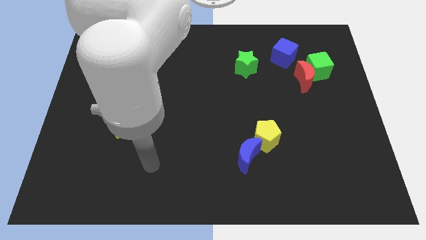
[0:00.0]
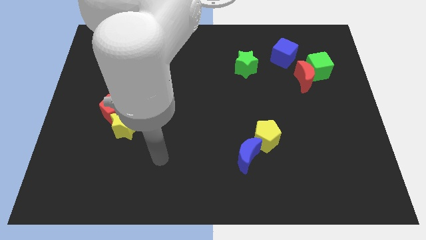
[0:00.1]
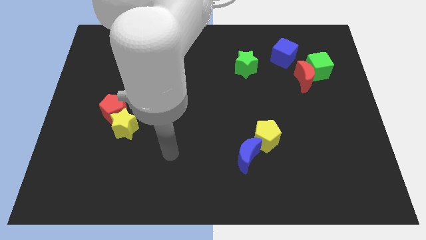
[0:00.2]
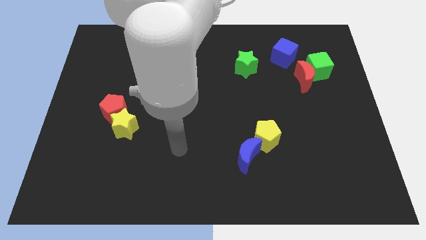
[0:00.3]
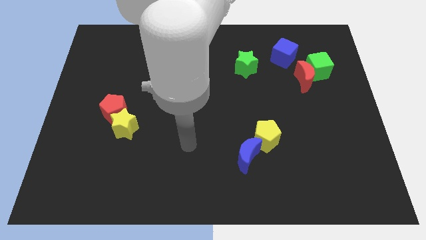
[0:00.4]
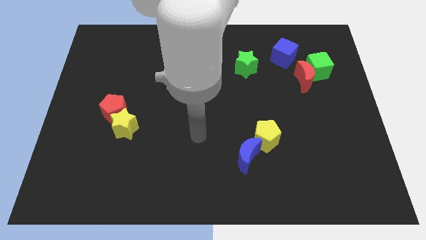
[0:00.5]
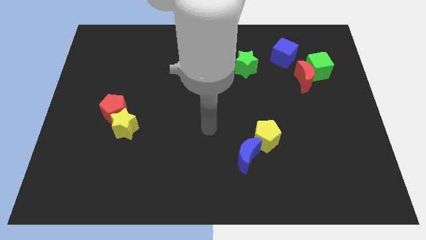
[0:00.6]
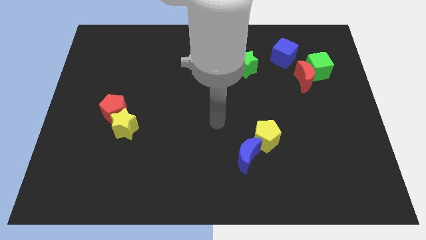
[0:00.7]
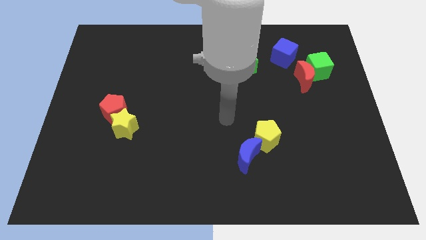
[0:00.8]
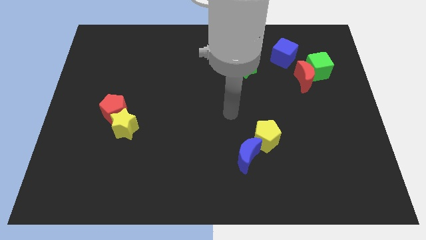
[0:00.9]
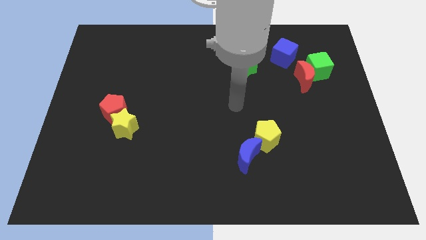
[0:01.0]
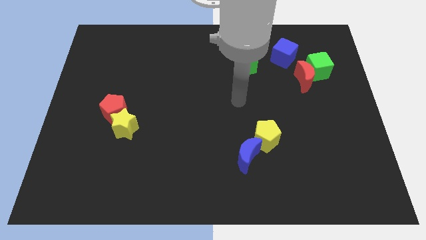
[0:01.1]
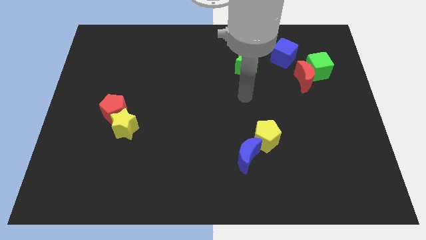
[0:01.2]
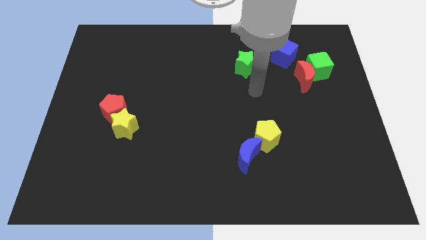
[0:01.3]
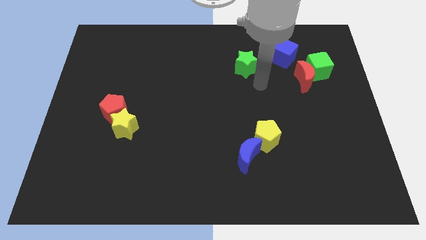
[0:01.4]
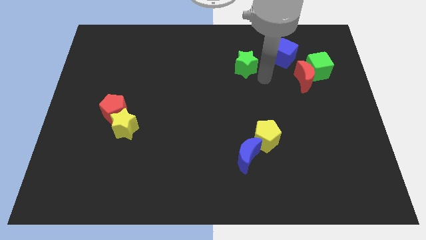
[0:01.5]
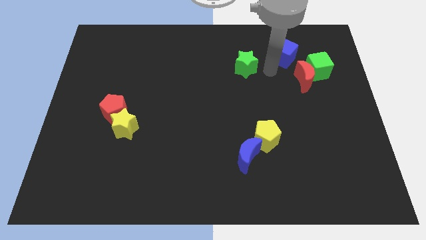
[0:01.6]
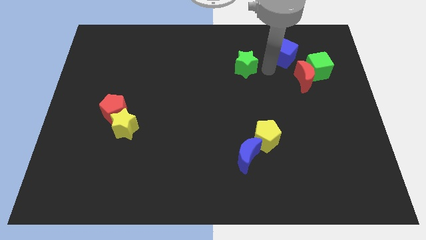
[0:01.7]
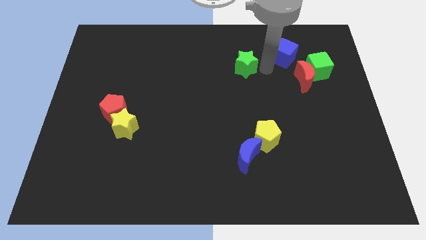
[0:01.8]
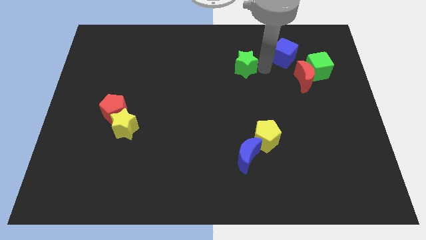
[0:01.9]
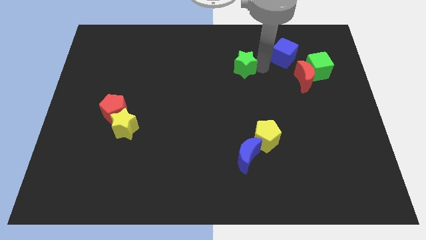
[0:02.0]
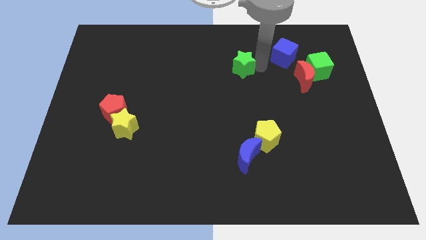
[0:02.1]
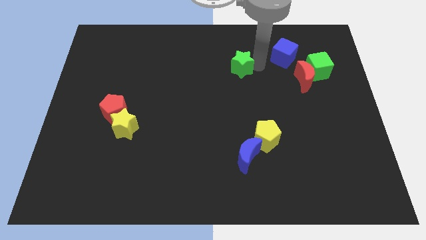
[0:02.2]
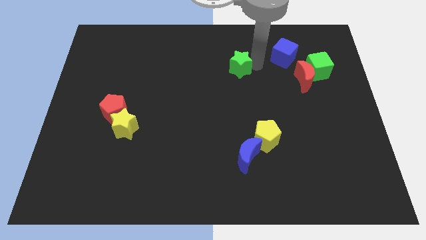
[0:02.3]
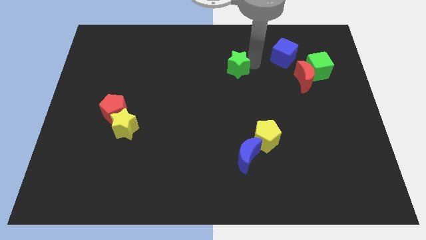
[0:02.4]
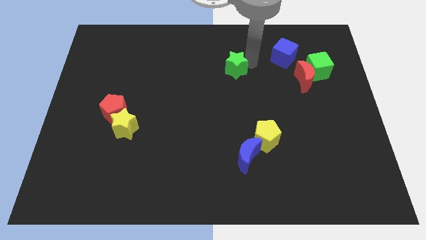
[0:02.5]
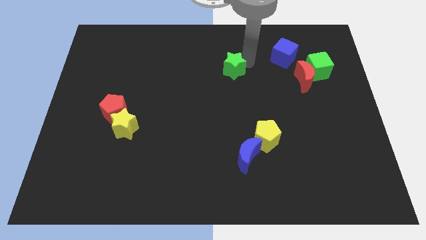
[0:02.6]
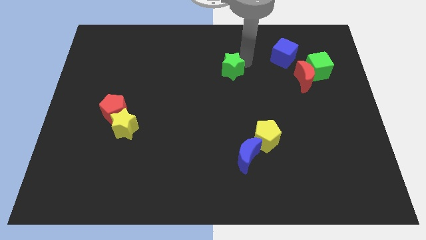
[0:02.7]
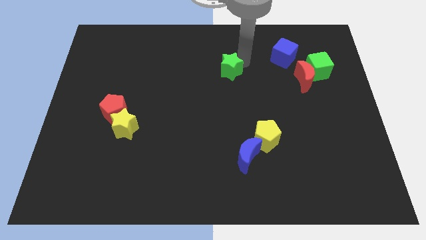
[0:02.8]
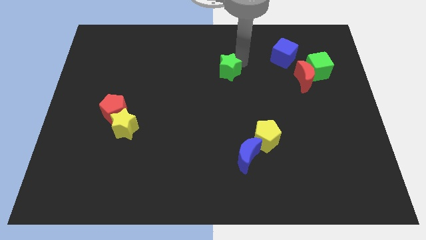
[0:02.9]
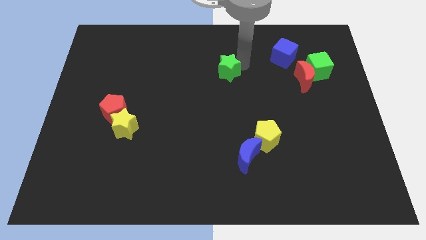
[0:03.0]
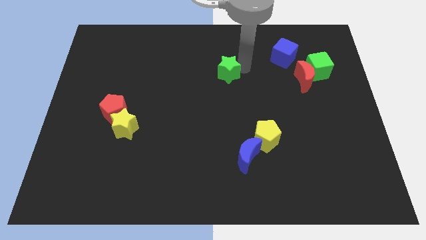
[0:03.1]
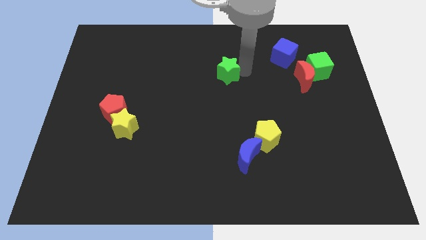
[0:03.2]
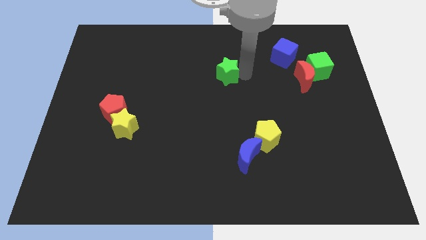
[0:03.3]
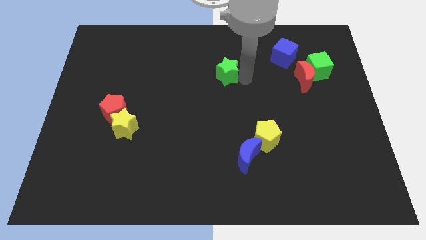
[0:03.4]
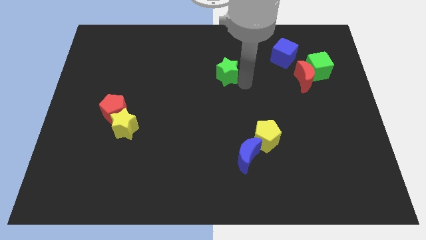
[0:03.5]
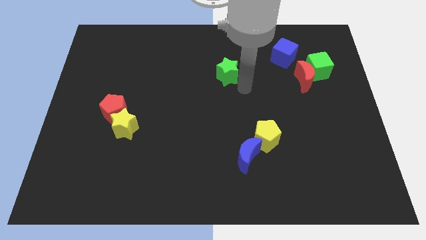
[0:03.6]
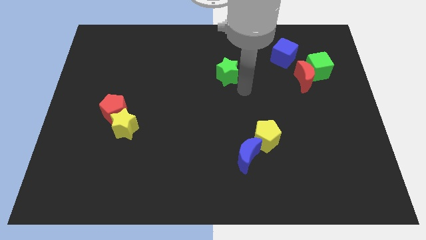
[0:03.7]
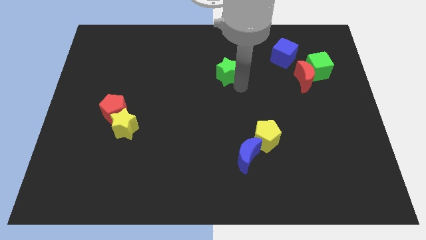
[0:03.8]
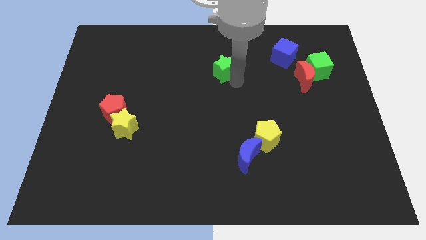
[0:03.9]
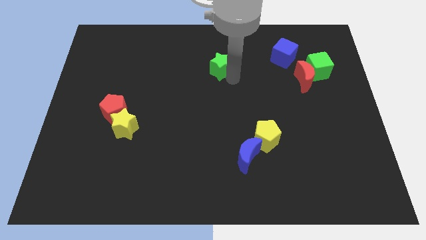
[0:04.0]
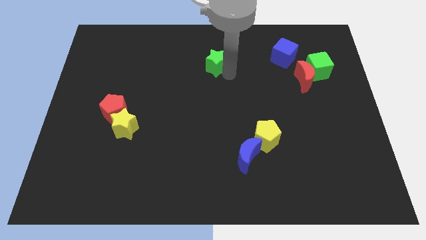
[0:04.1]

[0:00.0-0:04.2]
move the green star somewhat to the left

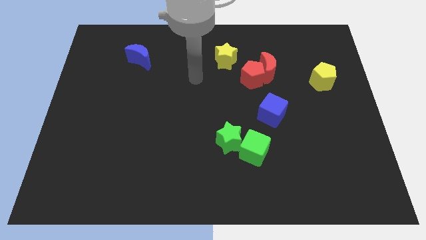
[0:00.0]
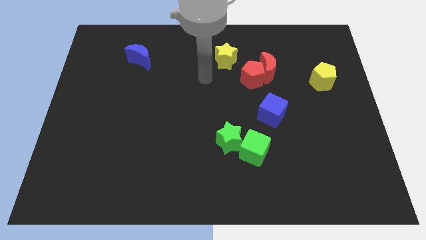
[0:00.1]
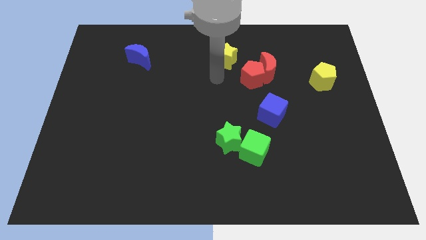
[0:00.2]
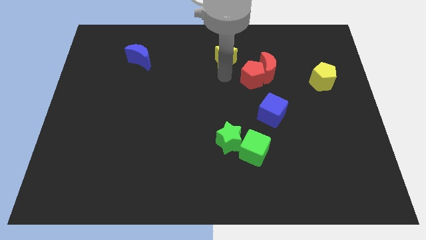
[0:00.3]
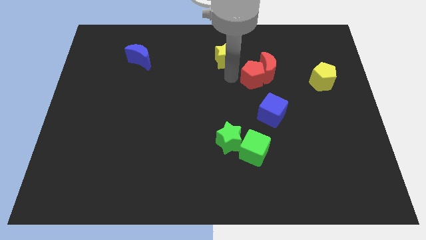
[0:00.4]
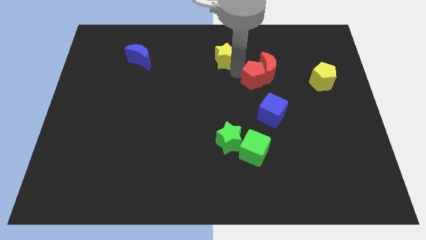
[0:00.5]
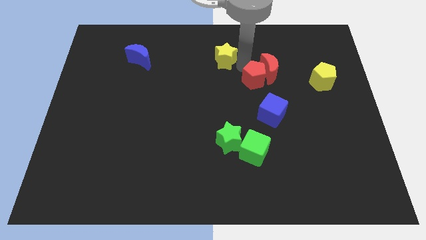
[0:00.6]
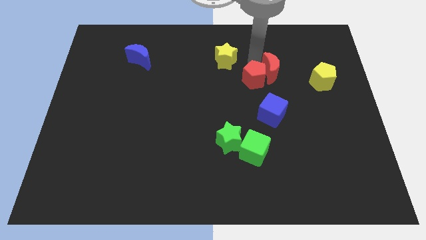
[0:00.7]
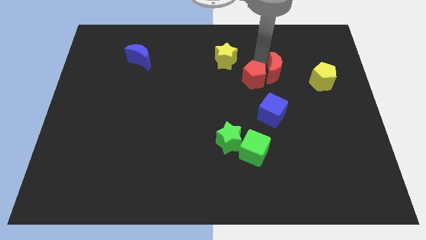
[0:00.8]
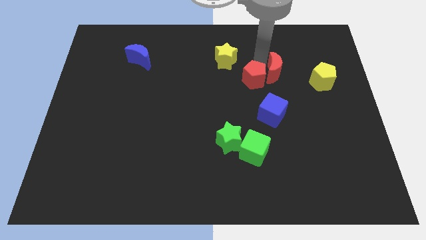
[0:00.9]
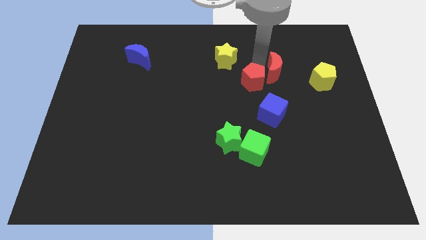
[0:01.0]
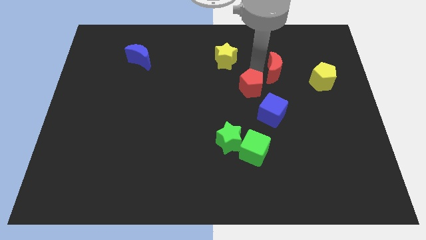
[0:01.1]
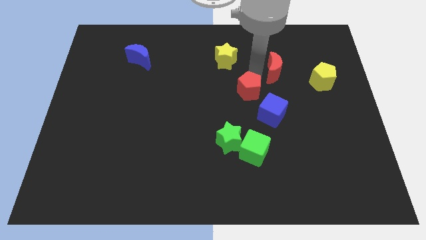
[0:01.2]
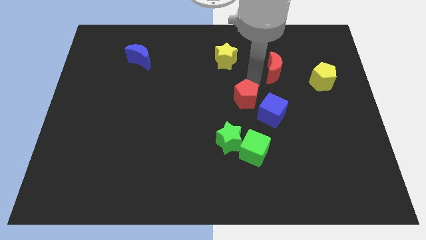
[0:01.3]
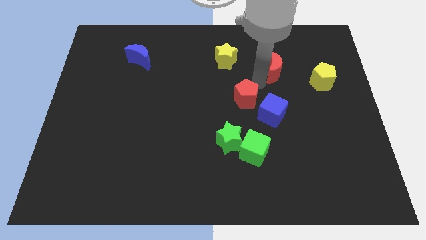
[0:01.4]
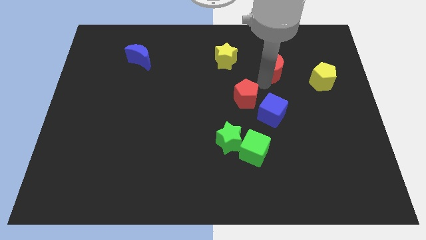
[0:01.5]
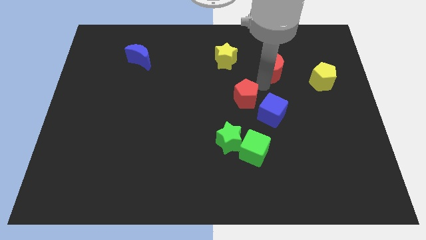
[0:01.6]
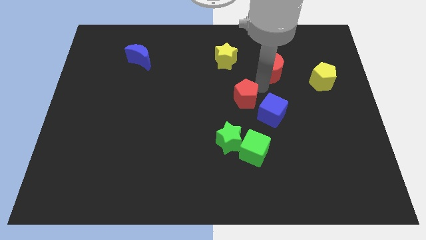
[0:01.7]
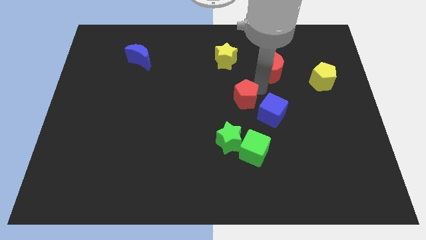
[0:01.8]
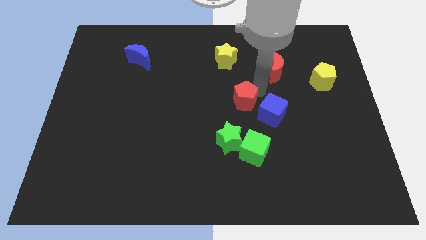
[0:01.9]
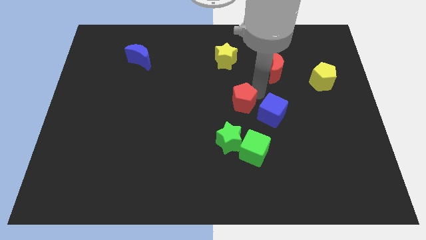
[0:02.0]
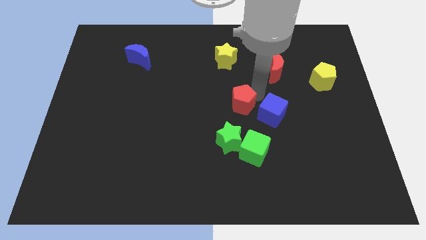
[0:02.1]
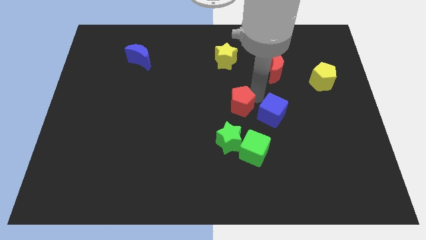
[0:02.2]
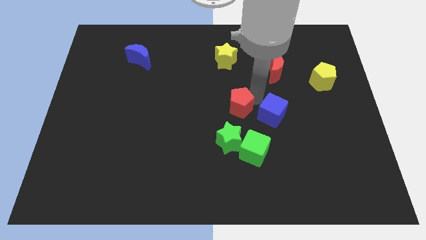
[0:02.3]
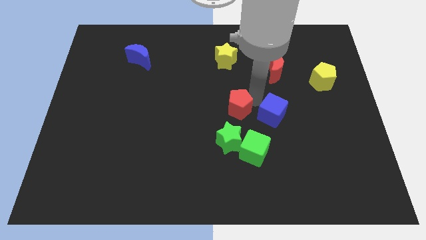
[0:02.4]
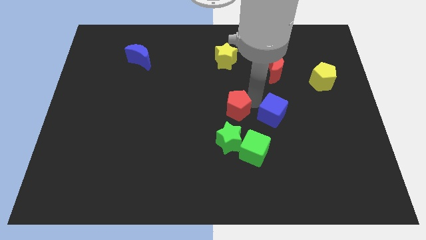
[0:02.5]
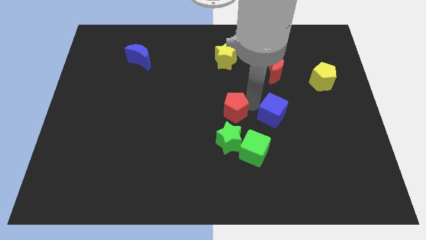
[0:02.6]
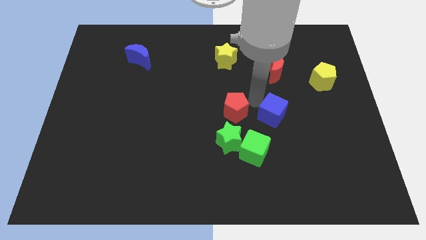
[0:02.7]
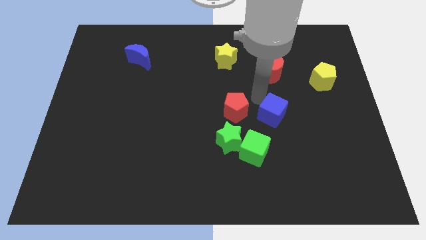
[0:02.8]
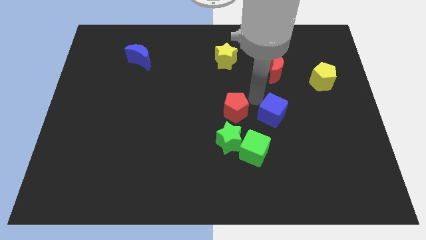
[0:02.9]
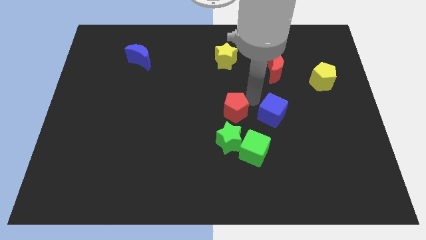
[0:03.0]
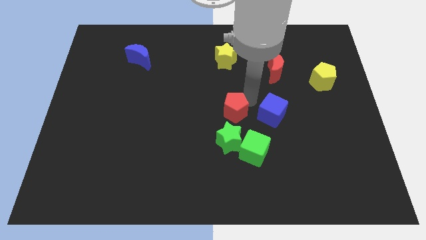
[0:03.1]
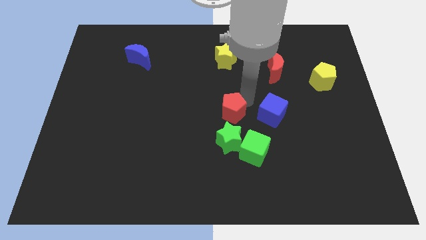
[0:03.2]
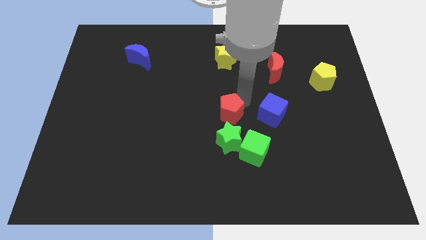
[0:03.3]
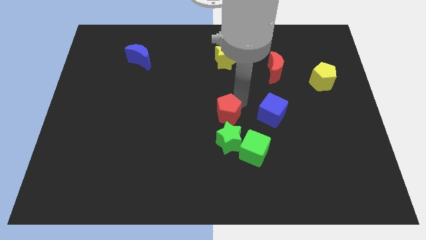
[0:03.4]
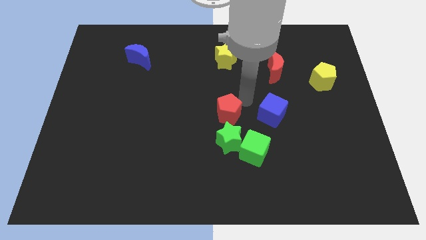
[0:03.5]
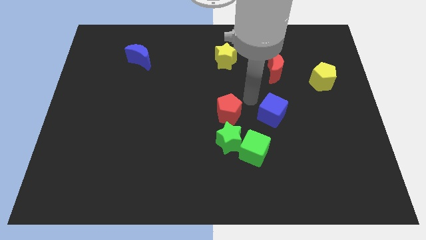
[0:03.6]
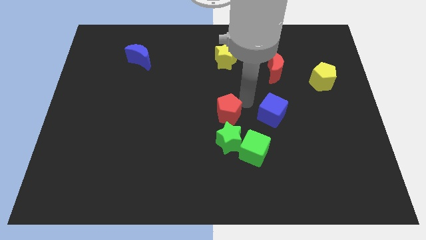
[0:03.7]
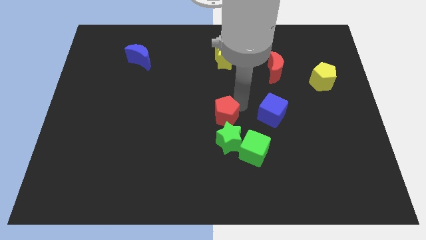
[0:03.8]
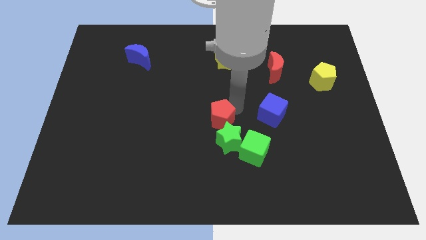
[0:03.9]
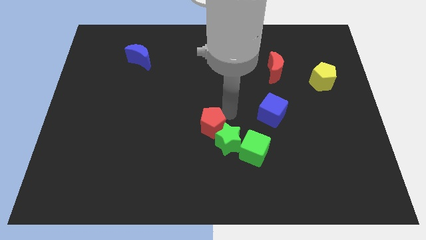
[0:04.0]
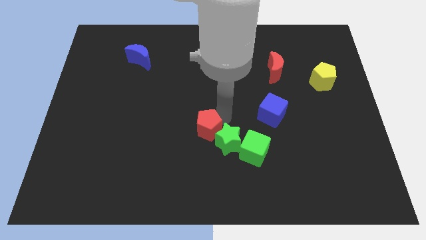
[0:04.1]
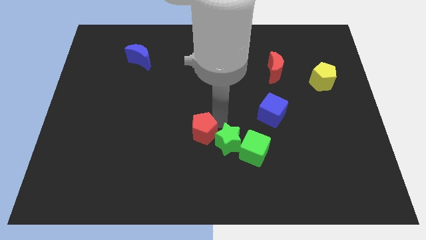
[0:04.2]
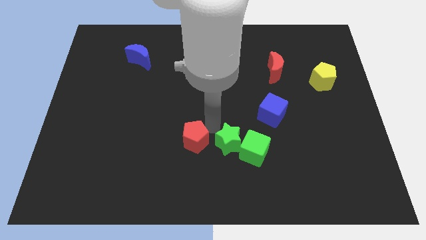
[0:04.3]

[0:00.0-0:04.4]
push the red pentagon down and left
